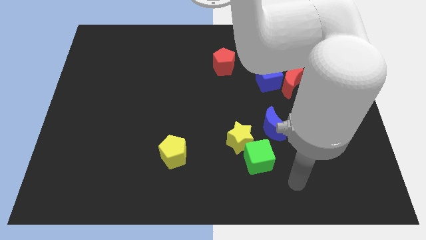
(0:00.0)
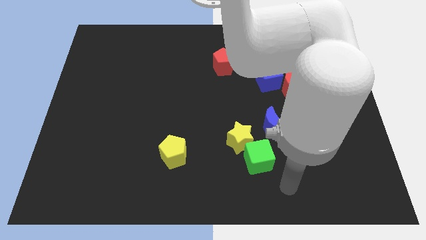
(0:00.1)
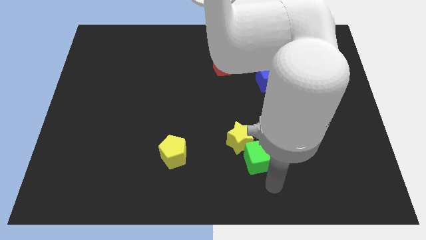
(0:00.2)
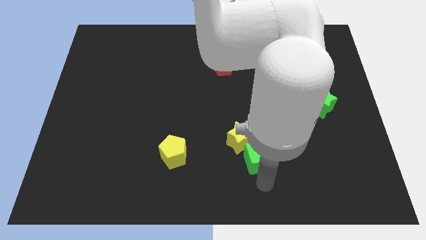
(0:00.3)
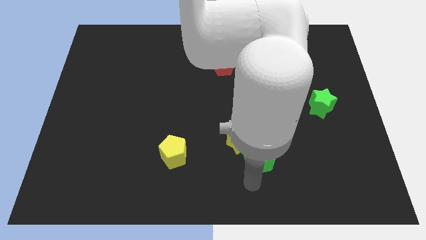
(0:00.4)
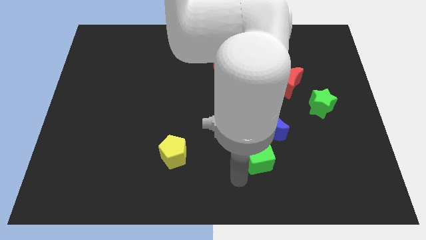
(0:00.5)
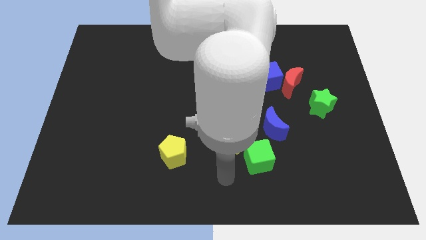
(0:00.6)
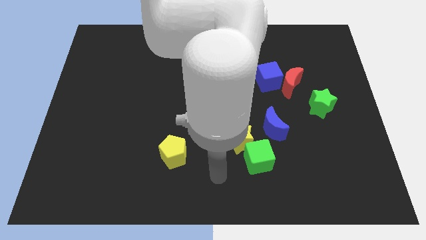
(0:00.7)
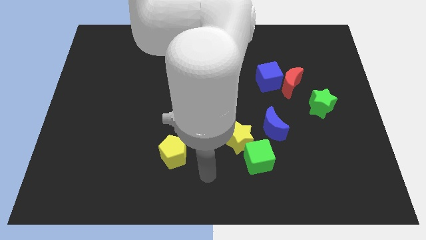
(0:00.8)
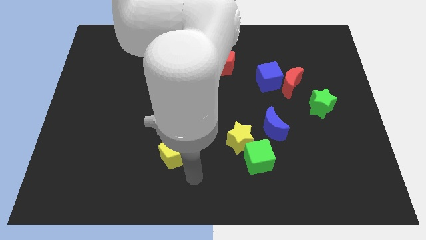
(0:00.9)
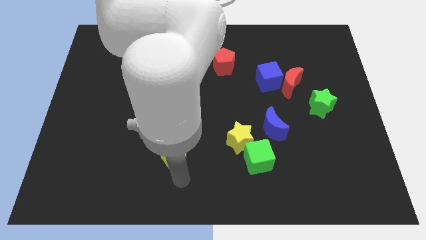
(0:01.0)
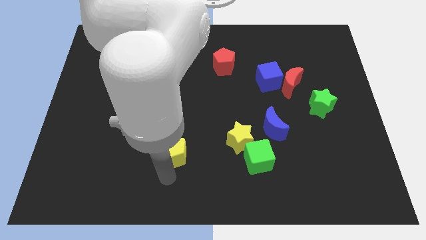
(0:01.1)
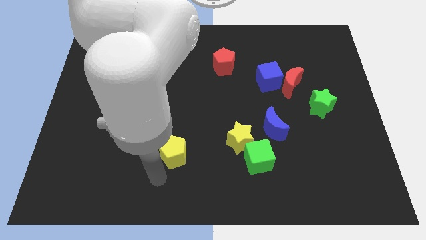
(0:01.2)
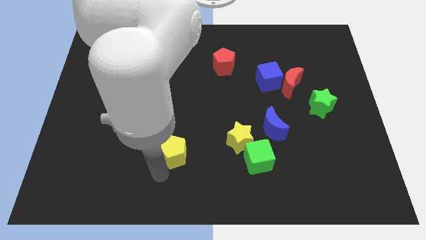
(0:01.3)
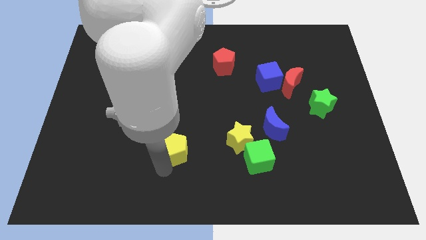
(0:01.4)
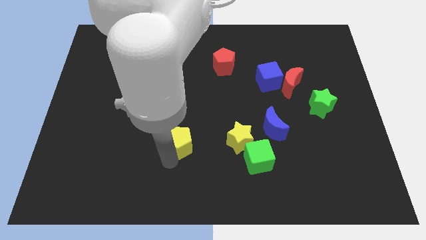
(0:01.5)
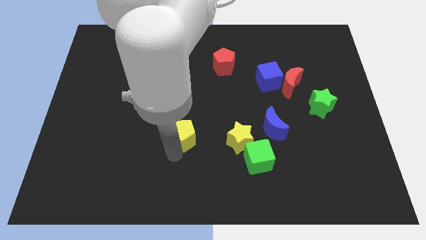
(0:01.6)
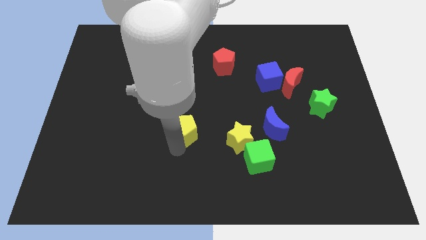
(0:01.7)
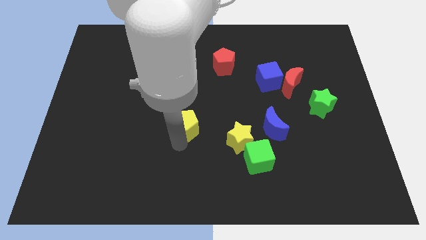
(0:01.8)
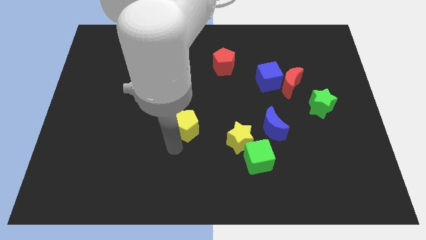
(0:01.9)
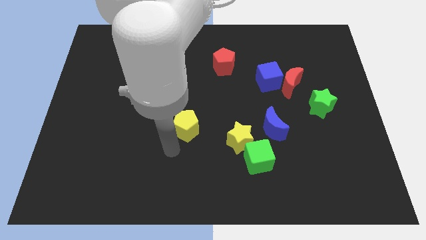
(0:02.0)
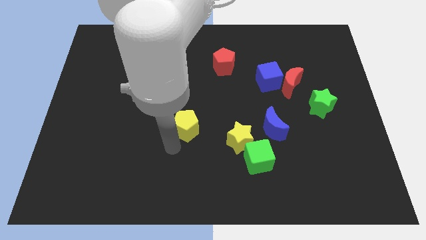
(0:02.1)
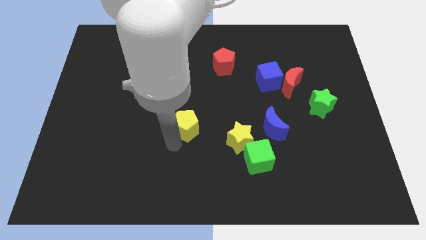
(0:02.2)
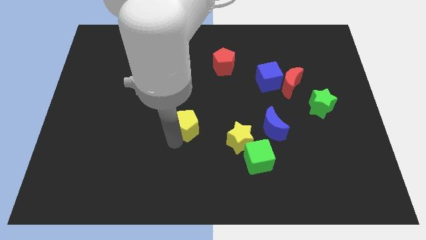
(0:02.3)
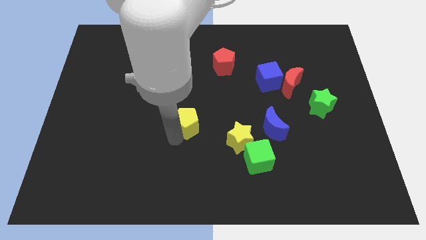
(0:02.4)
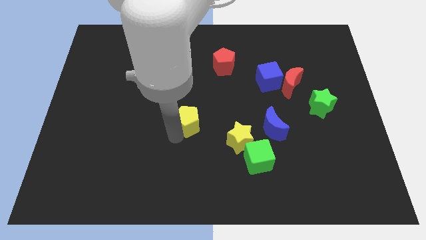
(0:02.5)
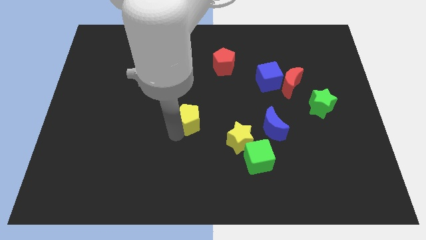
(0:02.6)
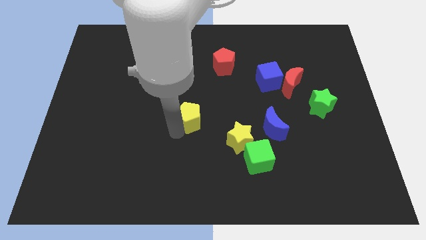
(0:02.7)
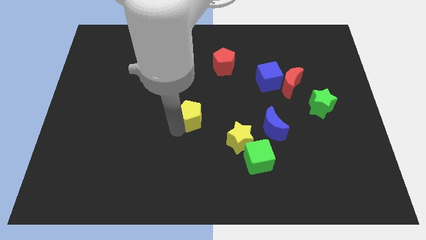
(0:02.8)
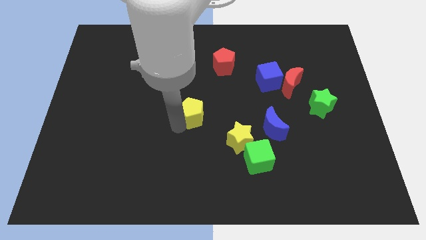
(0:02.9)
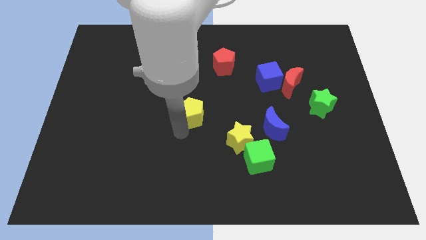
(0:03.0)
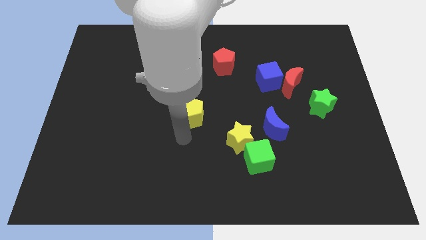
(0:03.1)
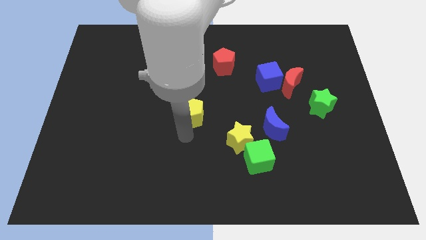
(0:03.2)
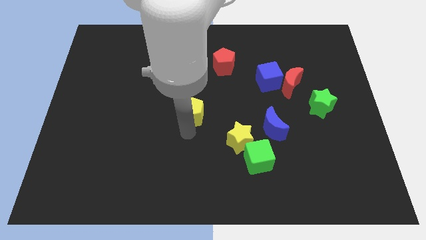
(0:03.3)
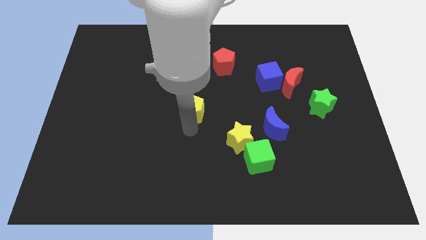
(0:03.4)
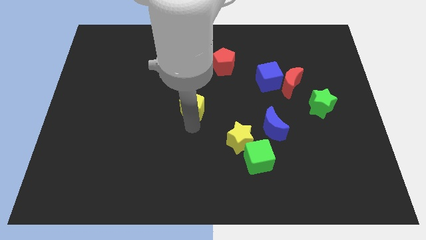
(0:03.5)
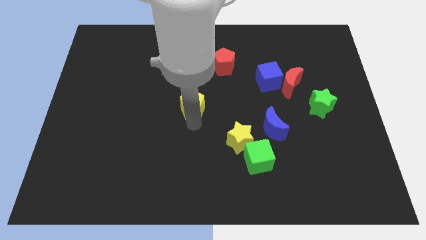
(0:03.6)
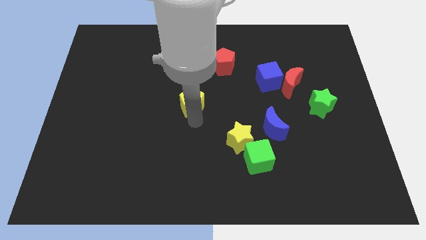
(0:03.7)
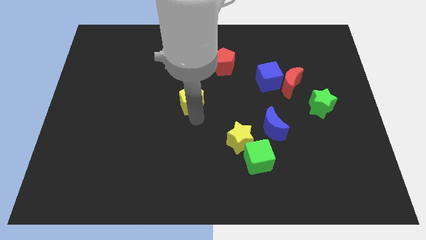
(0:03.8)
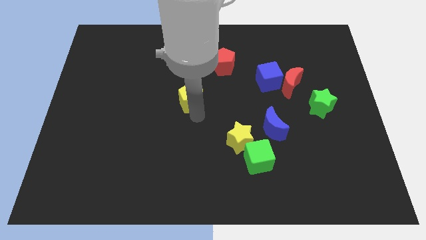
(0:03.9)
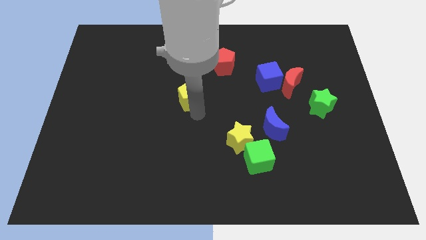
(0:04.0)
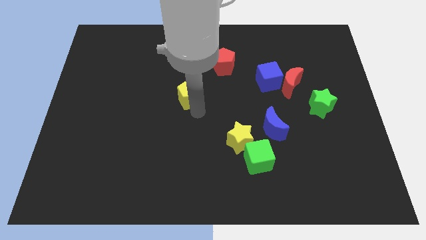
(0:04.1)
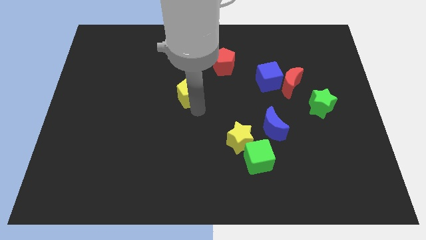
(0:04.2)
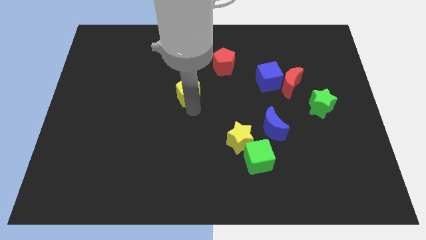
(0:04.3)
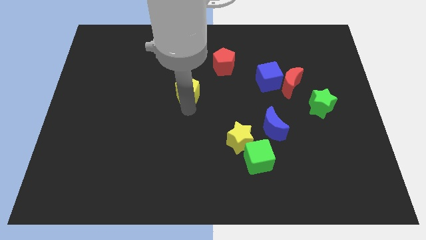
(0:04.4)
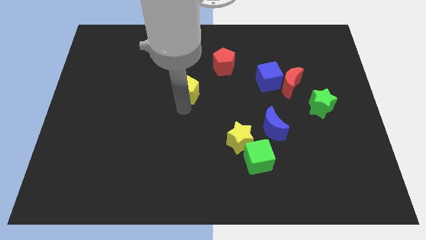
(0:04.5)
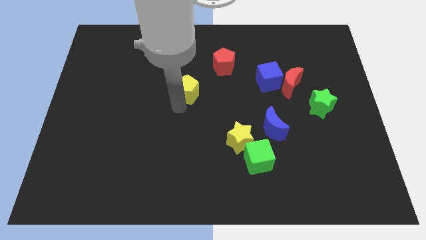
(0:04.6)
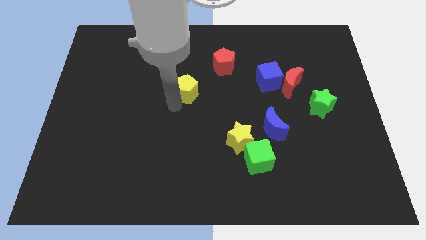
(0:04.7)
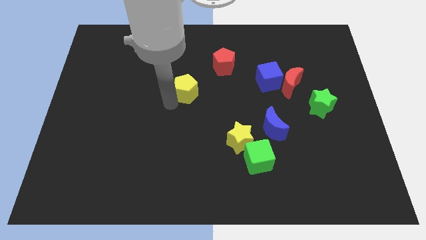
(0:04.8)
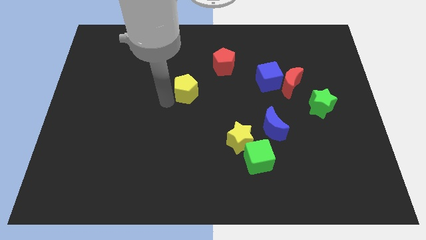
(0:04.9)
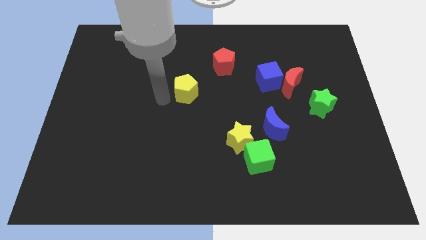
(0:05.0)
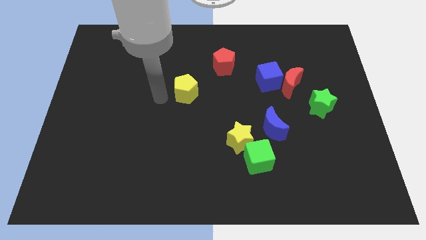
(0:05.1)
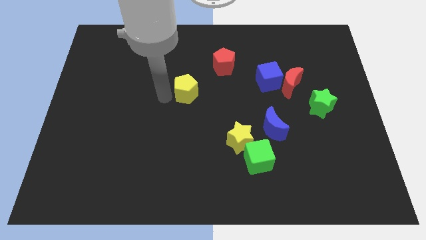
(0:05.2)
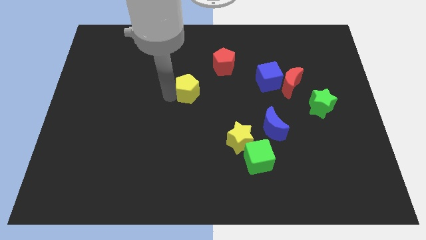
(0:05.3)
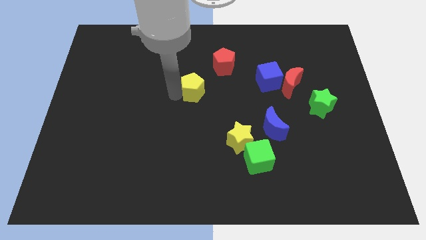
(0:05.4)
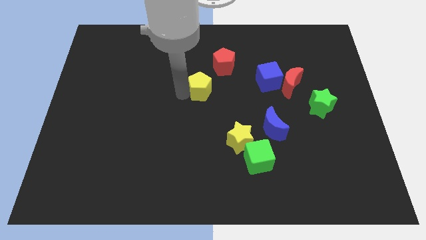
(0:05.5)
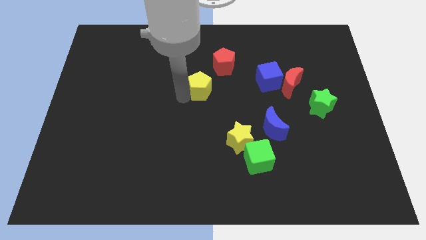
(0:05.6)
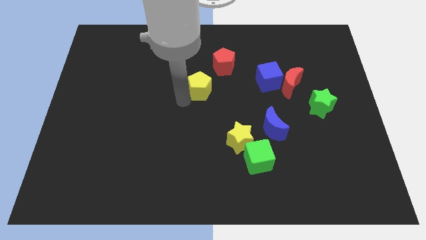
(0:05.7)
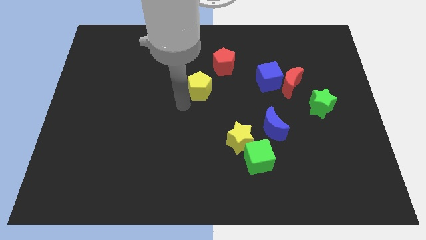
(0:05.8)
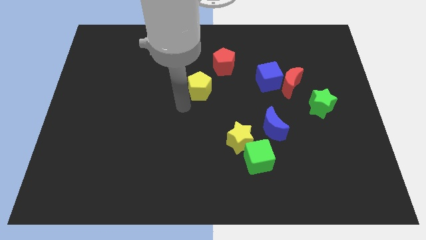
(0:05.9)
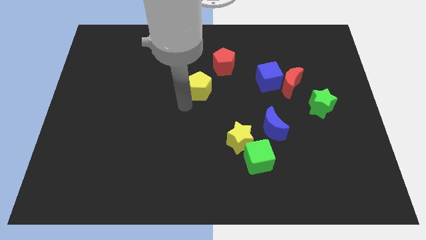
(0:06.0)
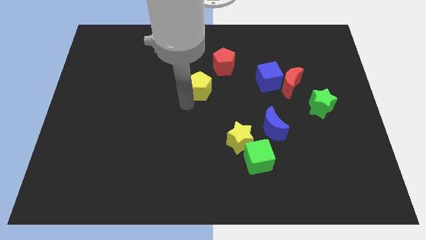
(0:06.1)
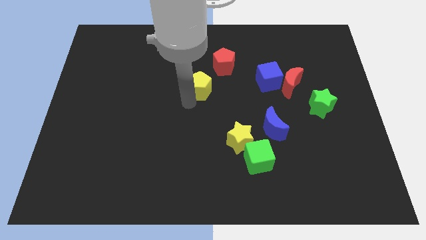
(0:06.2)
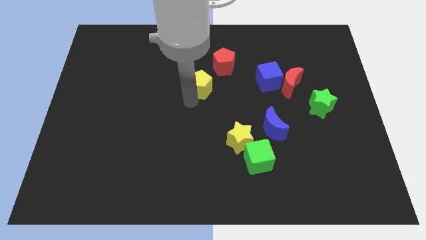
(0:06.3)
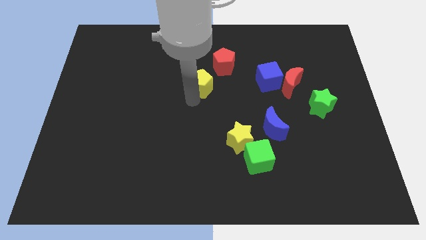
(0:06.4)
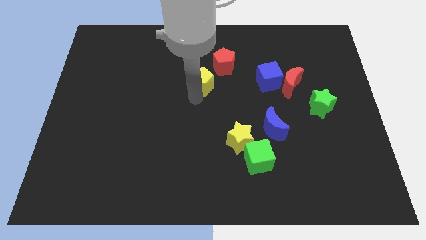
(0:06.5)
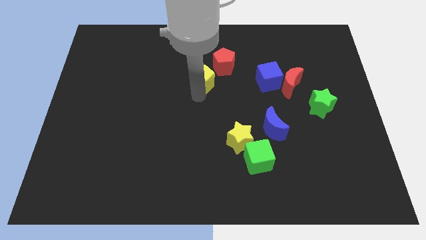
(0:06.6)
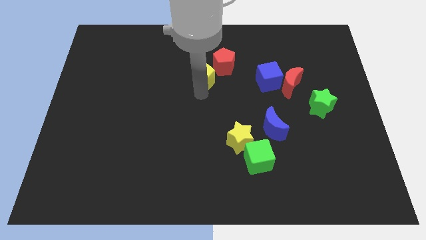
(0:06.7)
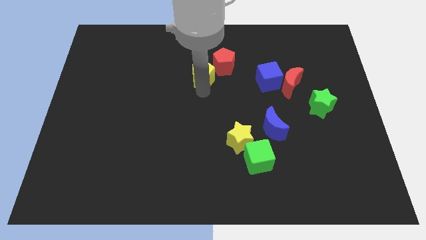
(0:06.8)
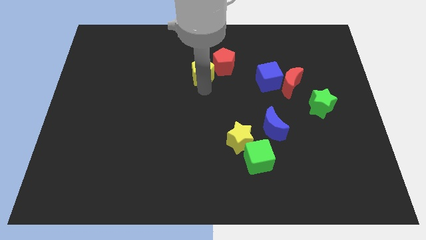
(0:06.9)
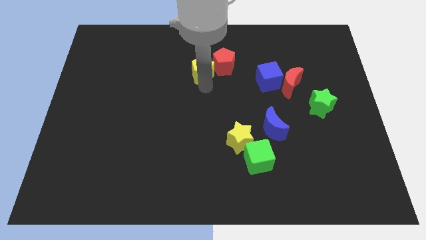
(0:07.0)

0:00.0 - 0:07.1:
move the yellow pentagon next to the red pentagon

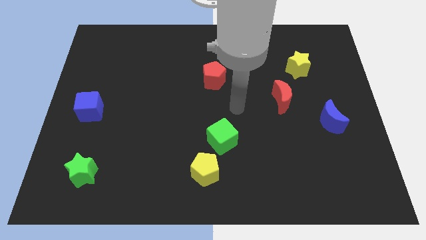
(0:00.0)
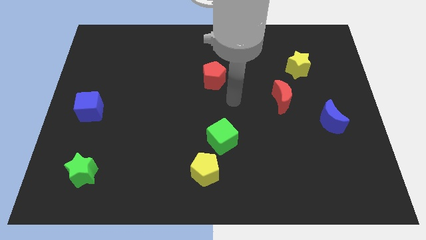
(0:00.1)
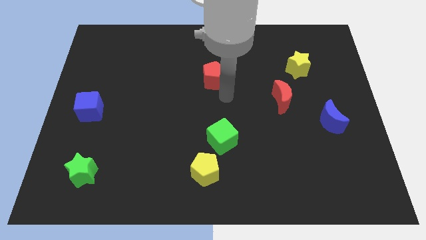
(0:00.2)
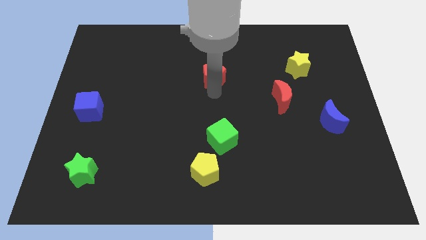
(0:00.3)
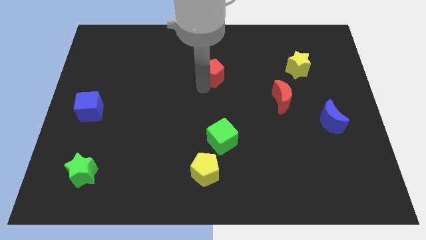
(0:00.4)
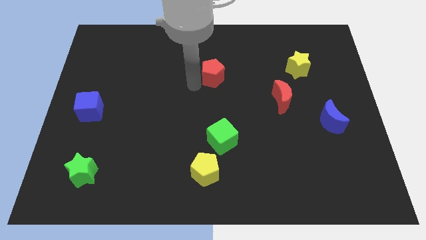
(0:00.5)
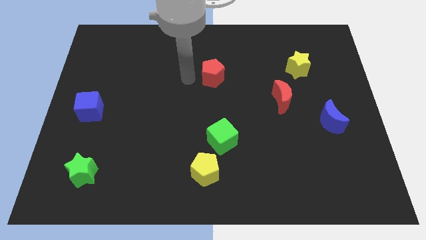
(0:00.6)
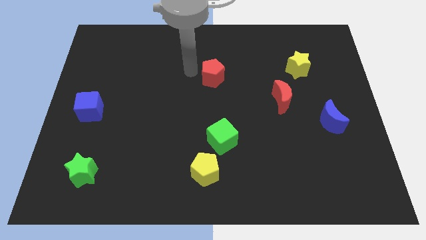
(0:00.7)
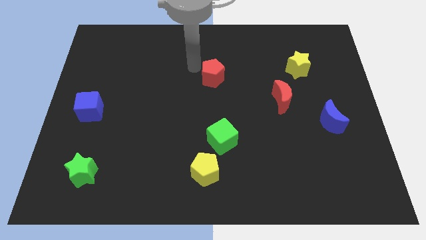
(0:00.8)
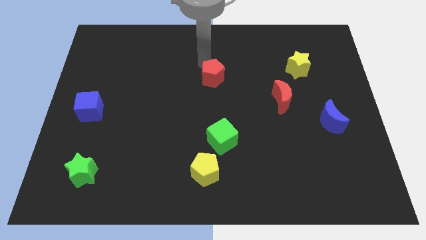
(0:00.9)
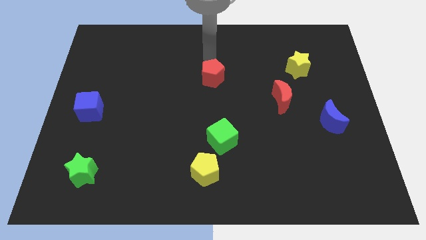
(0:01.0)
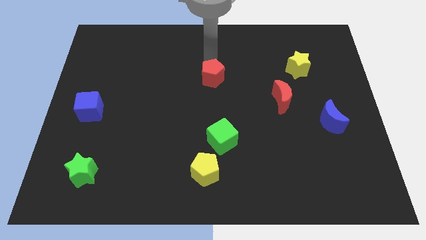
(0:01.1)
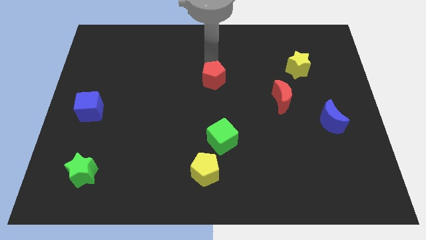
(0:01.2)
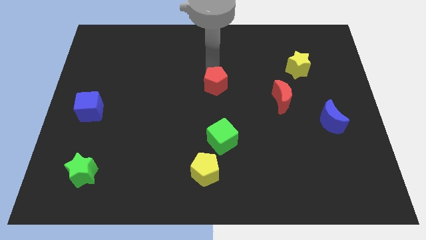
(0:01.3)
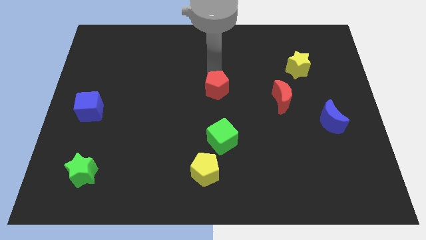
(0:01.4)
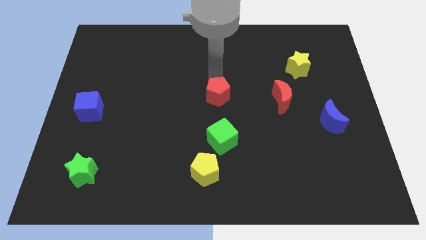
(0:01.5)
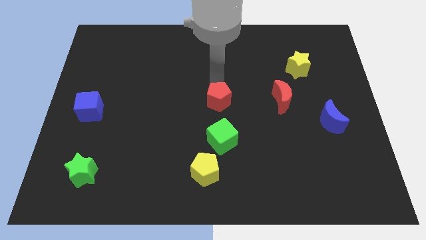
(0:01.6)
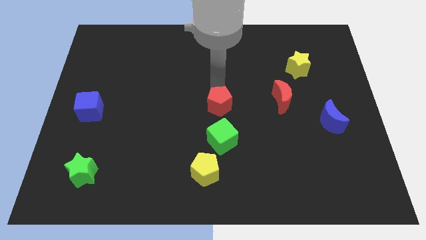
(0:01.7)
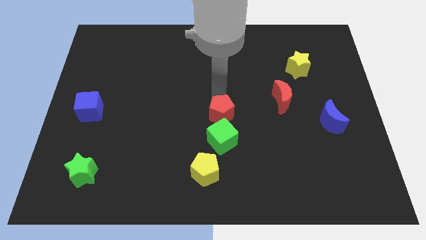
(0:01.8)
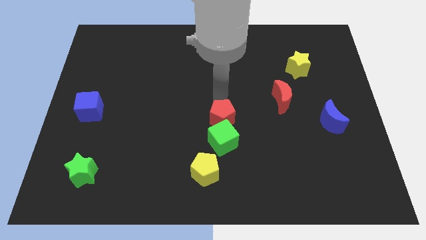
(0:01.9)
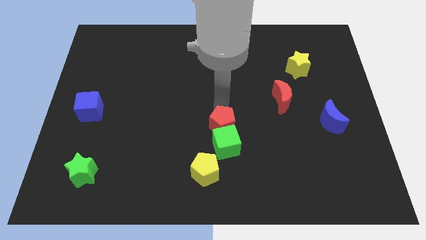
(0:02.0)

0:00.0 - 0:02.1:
slide the red pentagon to the green cube
